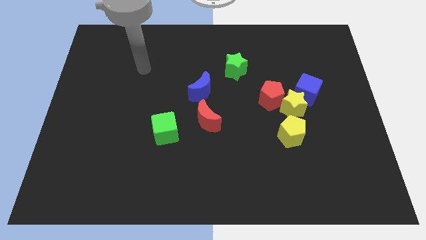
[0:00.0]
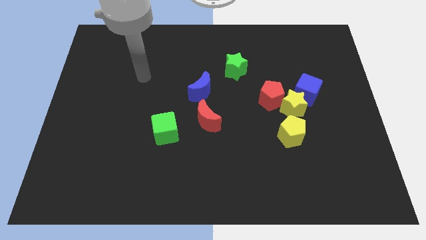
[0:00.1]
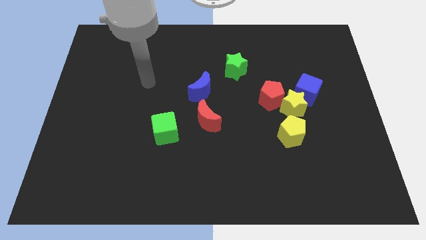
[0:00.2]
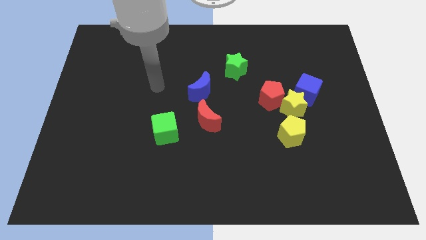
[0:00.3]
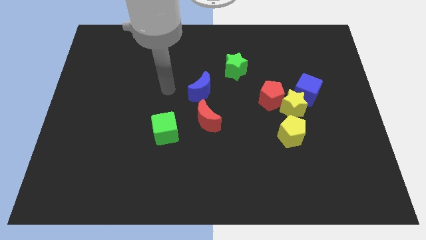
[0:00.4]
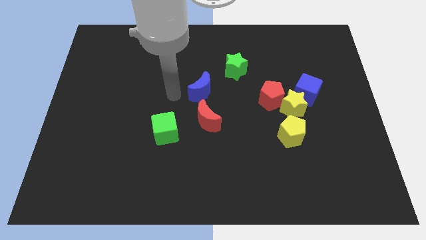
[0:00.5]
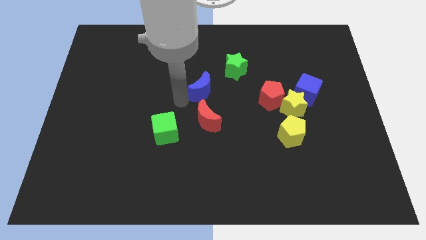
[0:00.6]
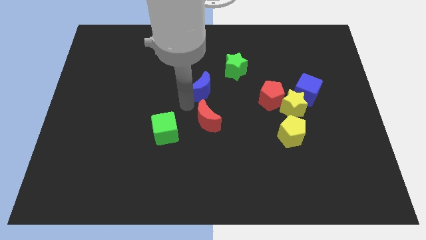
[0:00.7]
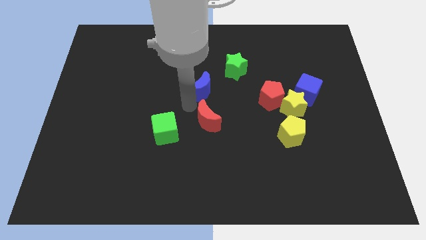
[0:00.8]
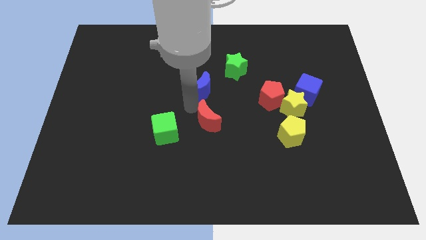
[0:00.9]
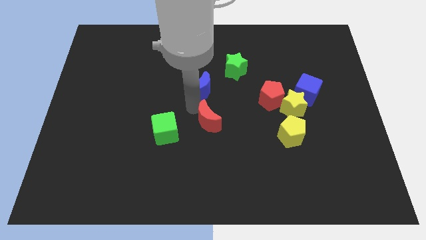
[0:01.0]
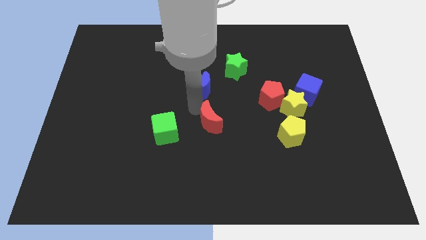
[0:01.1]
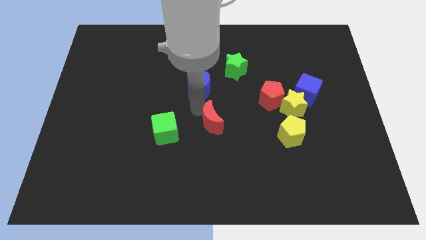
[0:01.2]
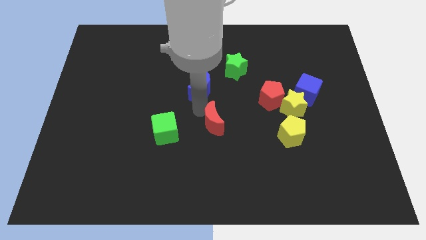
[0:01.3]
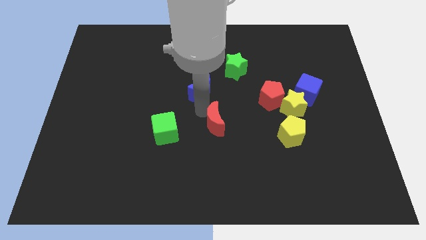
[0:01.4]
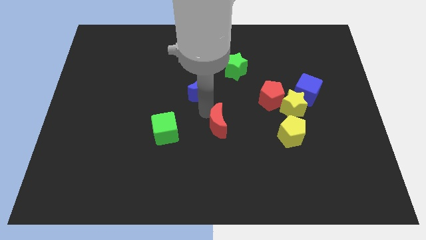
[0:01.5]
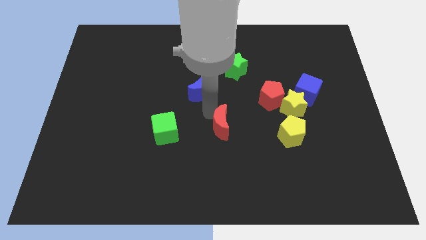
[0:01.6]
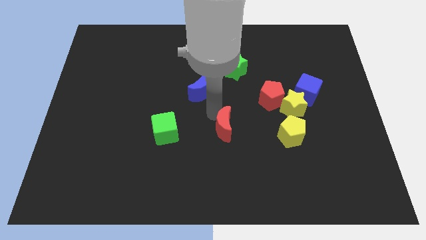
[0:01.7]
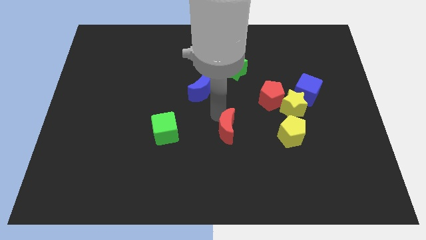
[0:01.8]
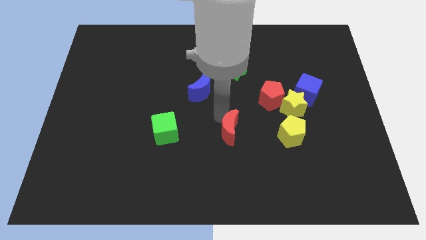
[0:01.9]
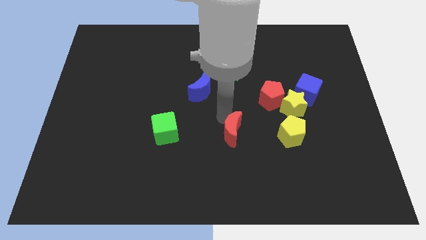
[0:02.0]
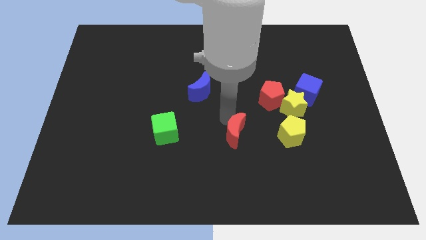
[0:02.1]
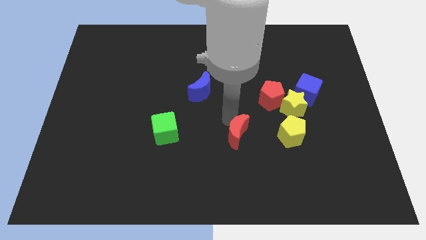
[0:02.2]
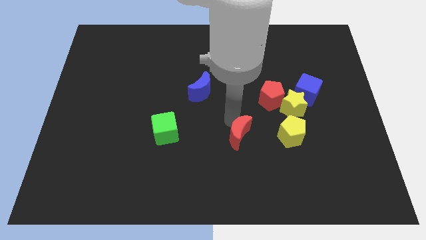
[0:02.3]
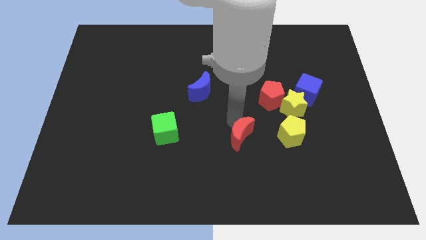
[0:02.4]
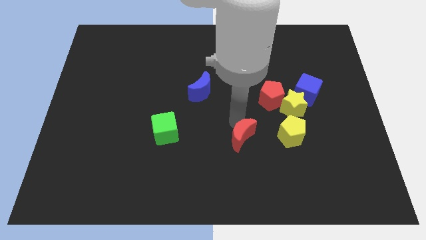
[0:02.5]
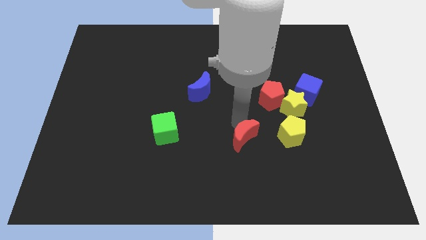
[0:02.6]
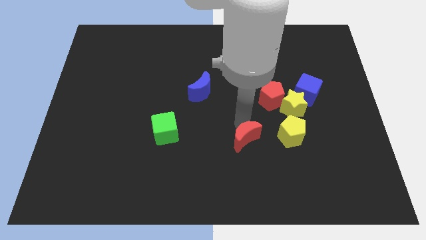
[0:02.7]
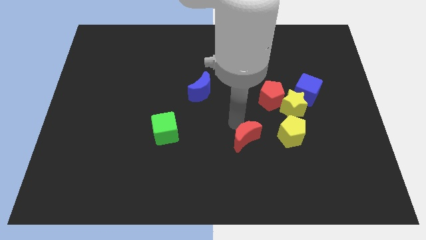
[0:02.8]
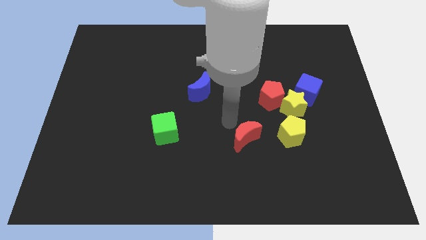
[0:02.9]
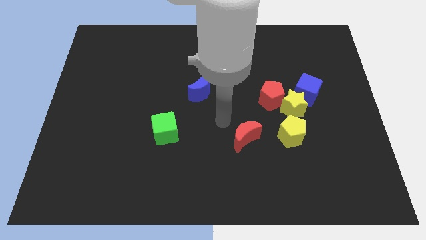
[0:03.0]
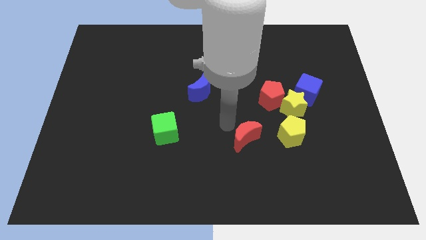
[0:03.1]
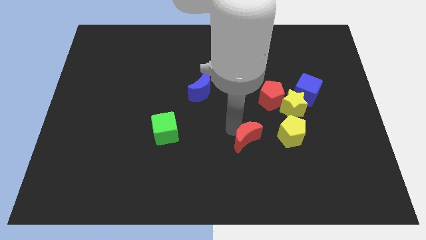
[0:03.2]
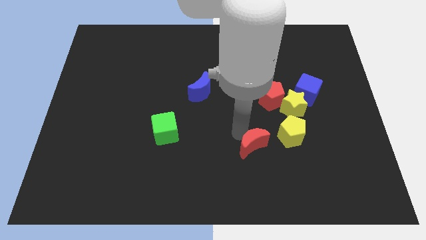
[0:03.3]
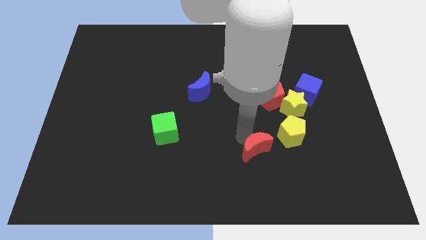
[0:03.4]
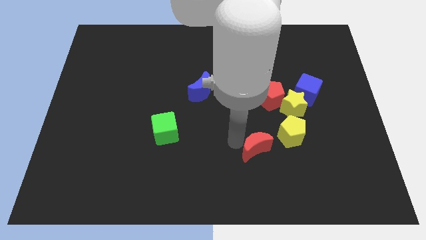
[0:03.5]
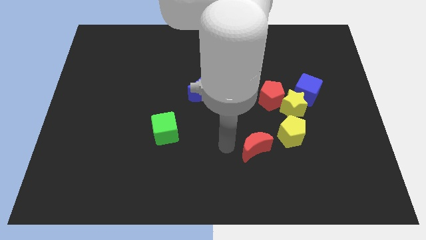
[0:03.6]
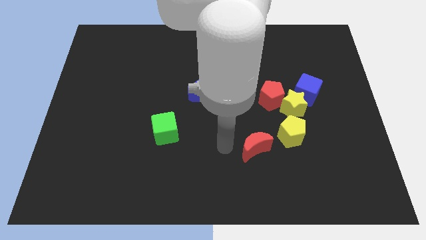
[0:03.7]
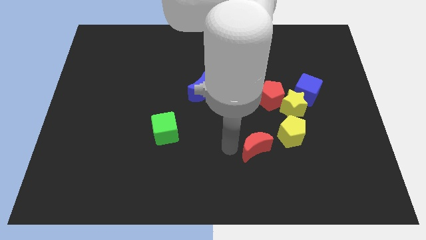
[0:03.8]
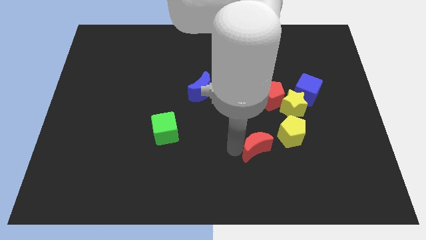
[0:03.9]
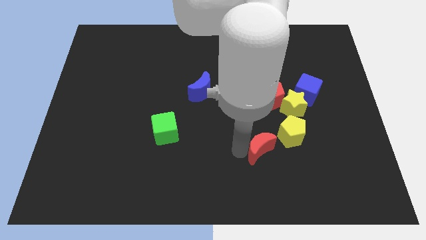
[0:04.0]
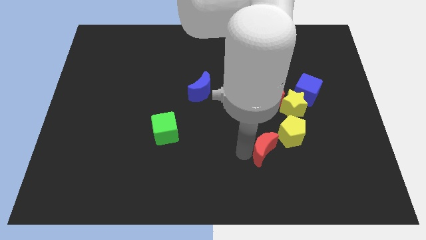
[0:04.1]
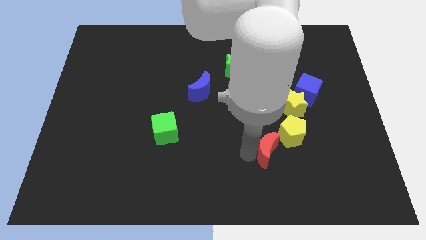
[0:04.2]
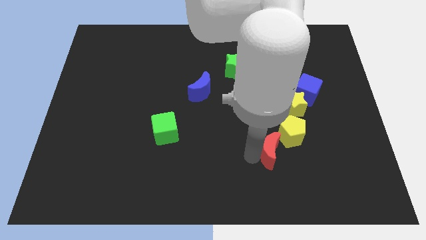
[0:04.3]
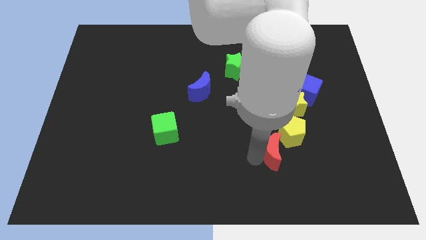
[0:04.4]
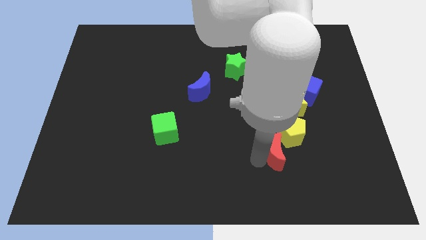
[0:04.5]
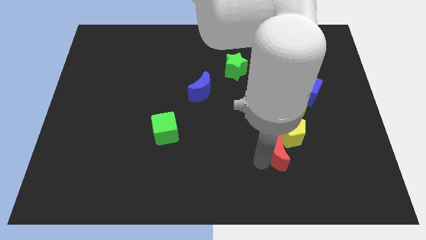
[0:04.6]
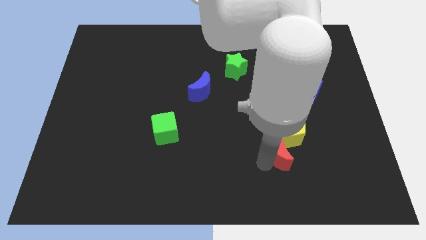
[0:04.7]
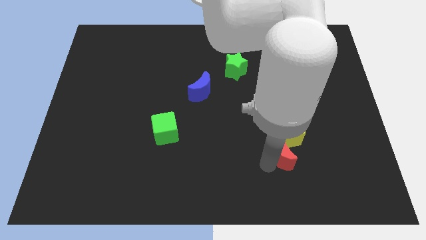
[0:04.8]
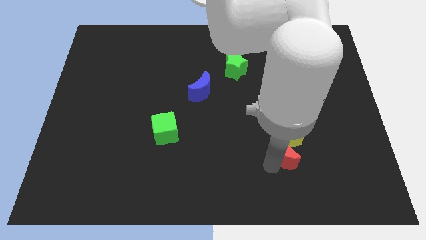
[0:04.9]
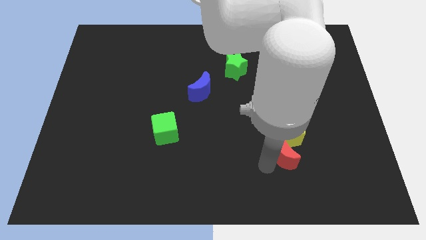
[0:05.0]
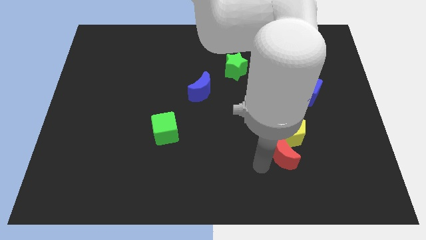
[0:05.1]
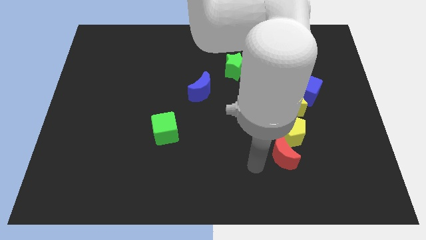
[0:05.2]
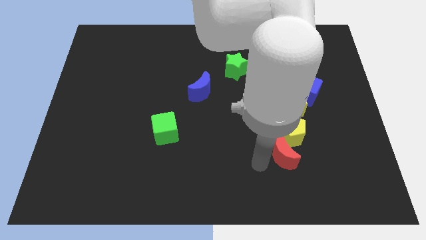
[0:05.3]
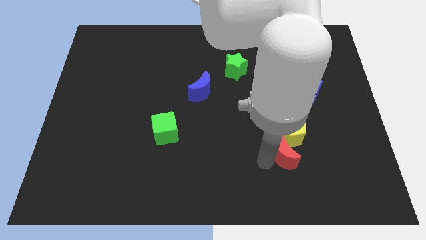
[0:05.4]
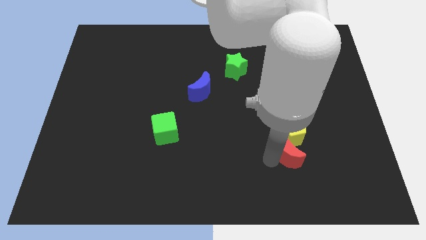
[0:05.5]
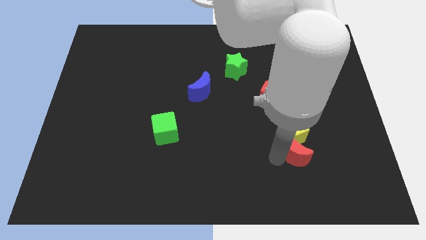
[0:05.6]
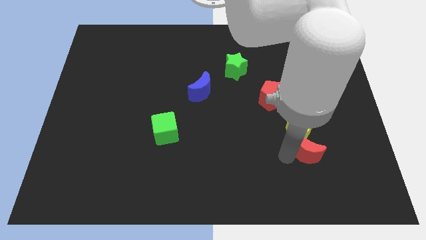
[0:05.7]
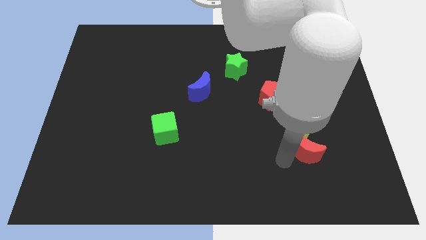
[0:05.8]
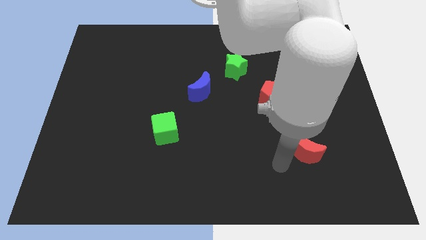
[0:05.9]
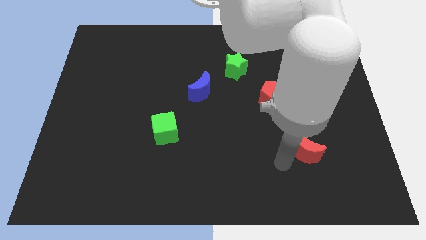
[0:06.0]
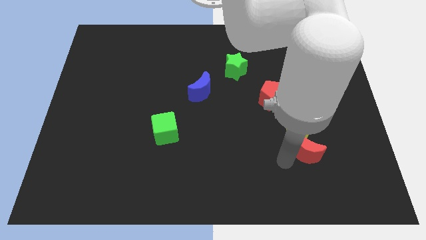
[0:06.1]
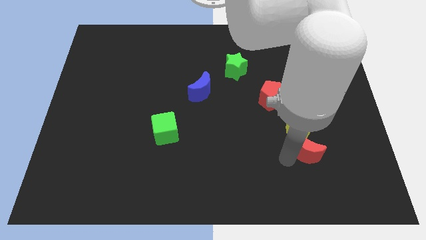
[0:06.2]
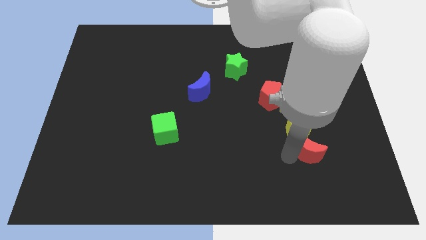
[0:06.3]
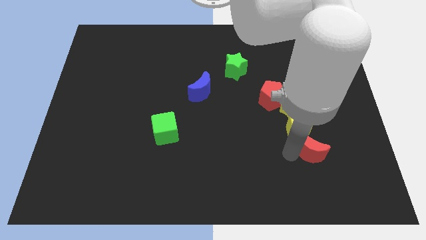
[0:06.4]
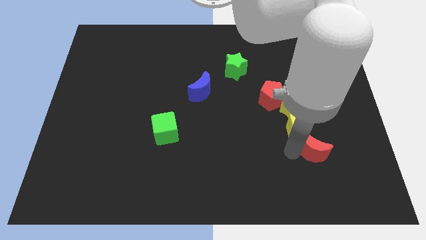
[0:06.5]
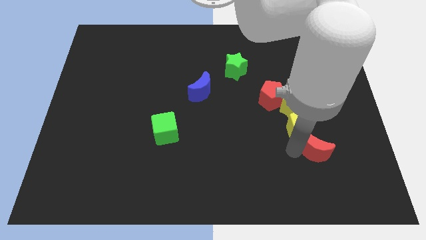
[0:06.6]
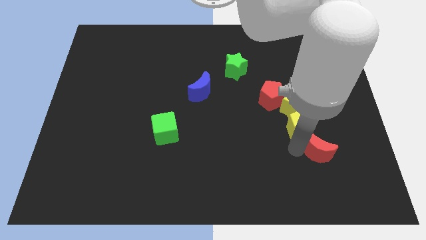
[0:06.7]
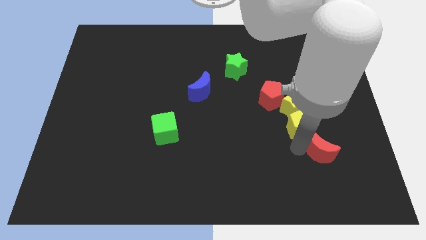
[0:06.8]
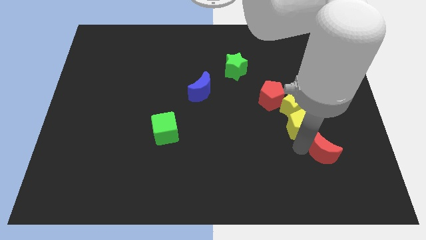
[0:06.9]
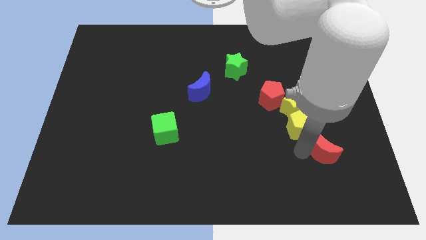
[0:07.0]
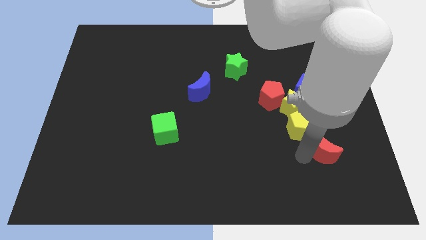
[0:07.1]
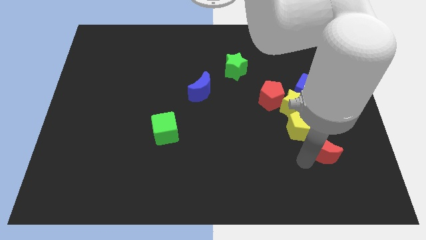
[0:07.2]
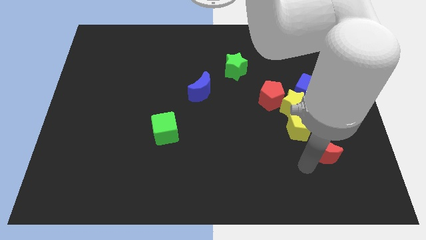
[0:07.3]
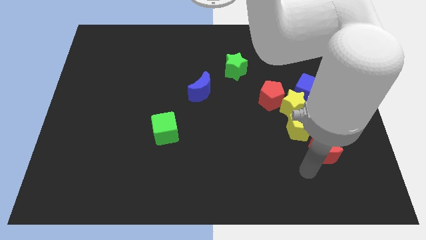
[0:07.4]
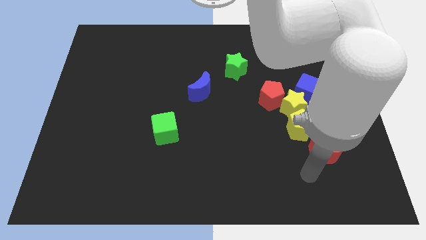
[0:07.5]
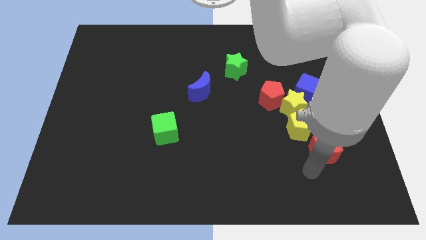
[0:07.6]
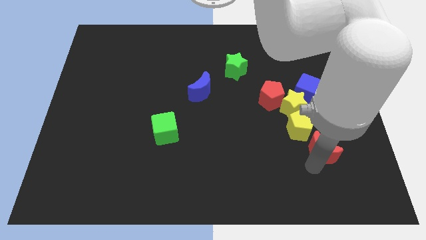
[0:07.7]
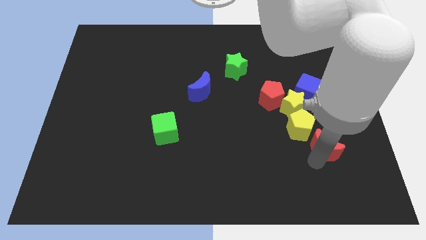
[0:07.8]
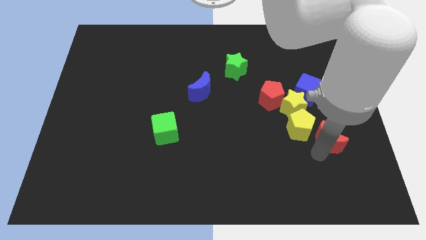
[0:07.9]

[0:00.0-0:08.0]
push the red moon right of the yellow pentagon
